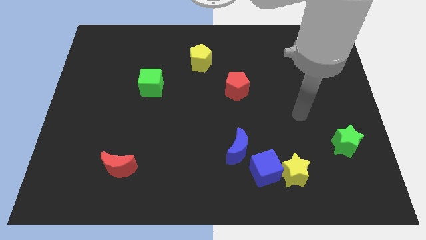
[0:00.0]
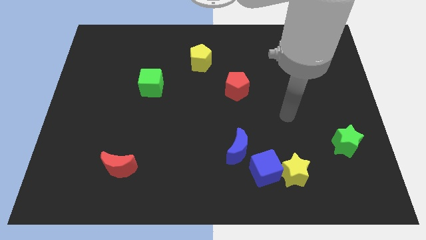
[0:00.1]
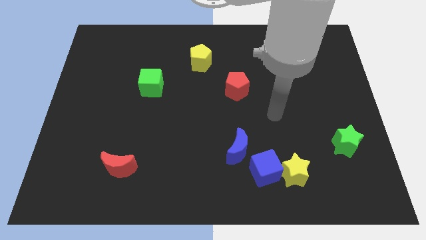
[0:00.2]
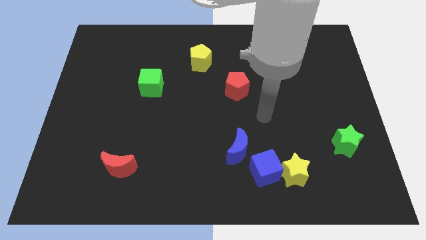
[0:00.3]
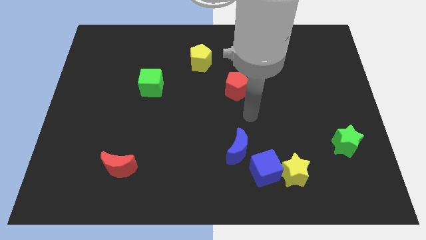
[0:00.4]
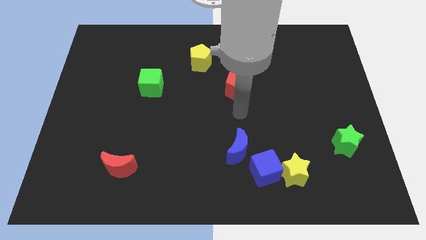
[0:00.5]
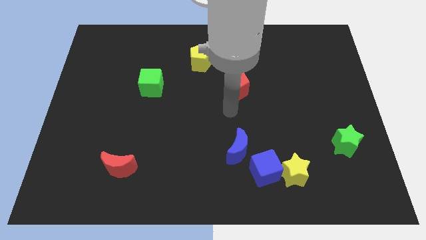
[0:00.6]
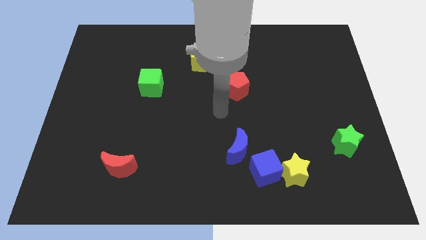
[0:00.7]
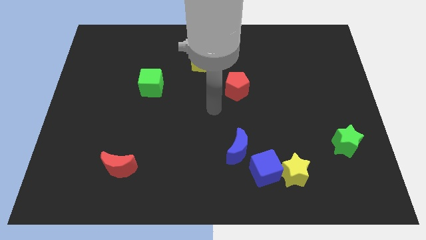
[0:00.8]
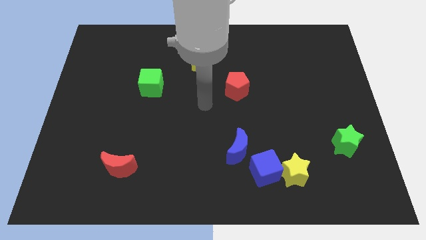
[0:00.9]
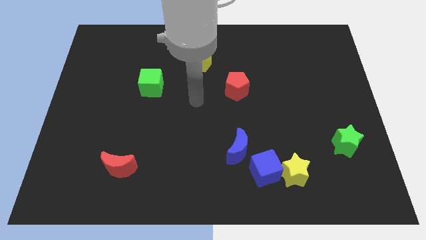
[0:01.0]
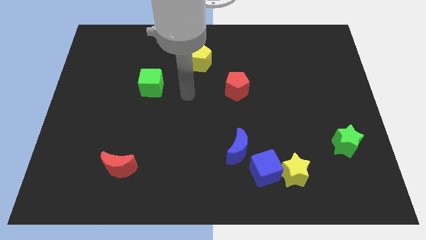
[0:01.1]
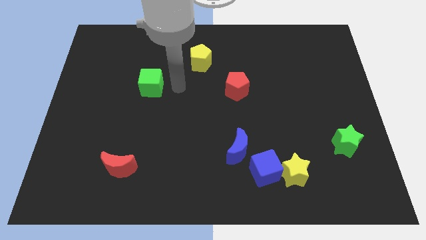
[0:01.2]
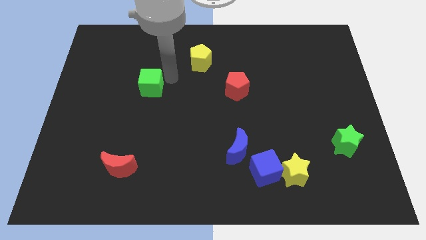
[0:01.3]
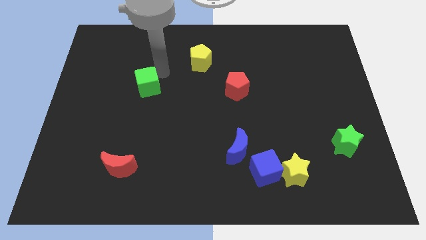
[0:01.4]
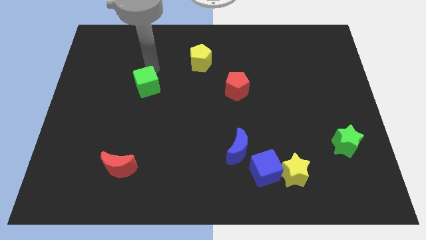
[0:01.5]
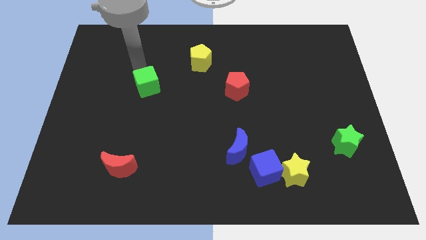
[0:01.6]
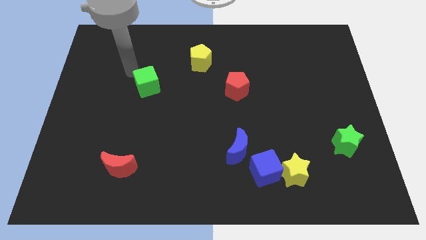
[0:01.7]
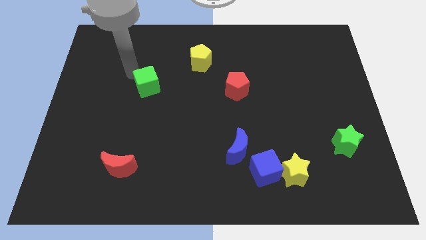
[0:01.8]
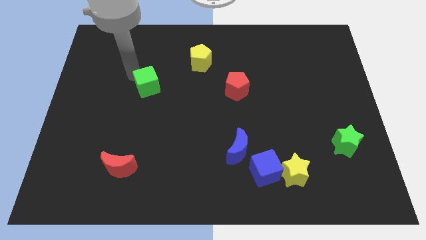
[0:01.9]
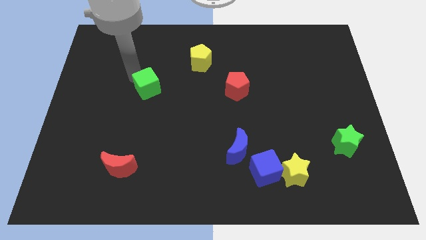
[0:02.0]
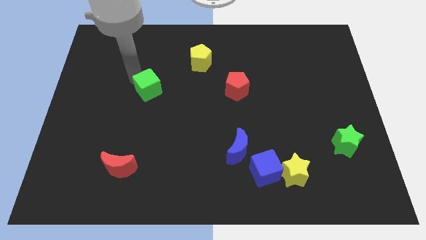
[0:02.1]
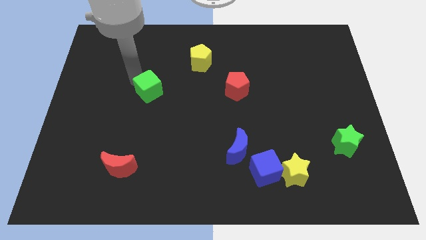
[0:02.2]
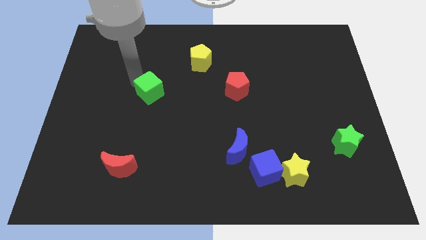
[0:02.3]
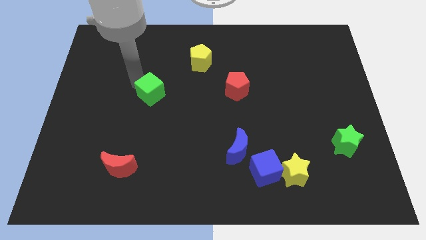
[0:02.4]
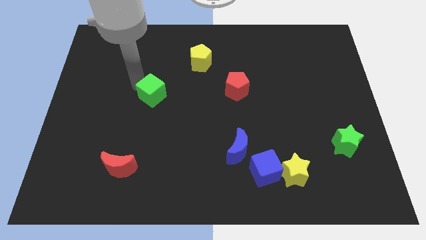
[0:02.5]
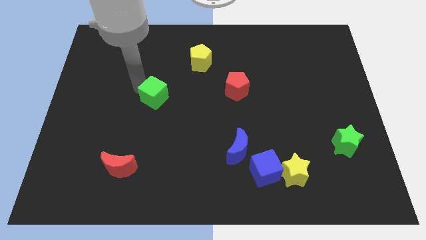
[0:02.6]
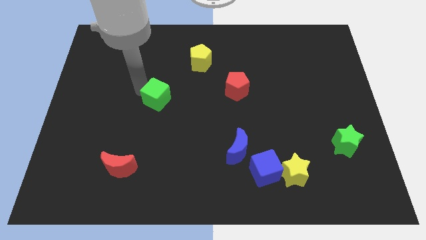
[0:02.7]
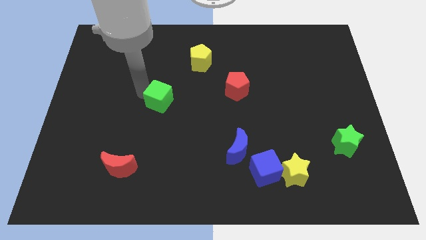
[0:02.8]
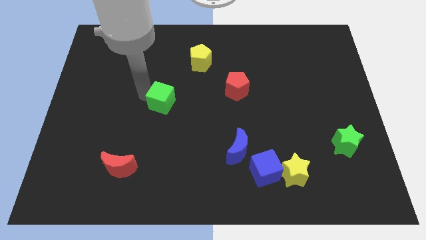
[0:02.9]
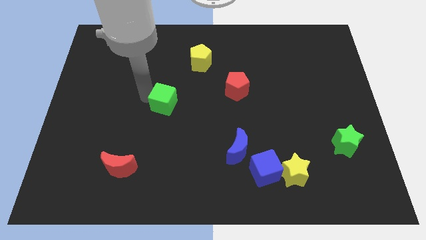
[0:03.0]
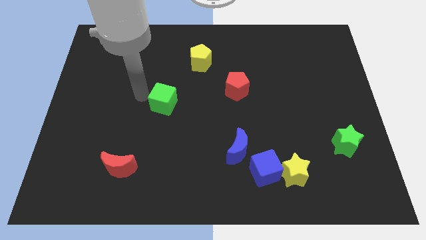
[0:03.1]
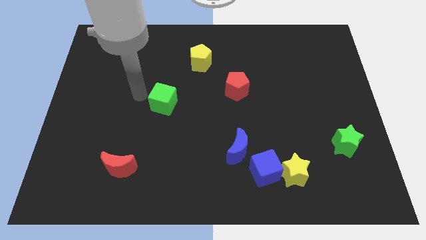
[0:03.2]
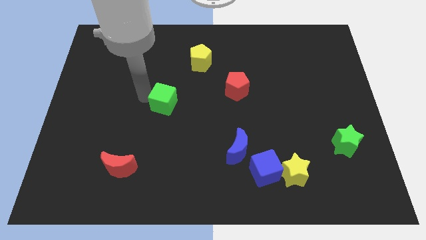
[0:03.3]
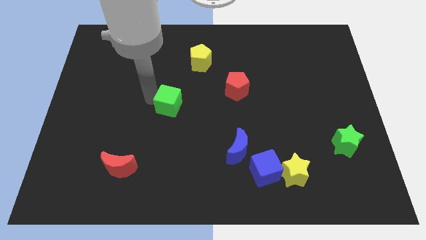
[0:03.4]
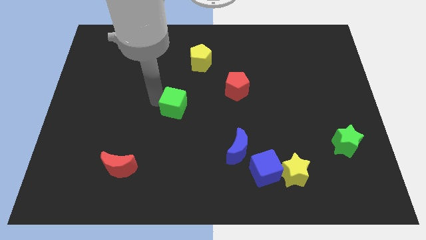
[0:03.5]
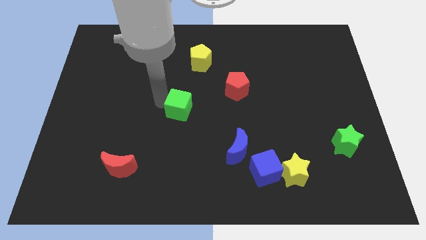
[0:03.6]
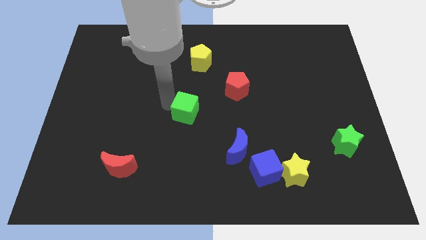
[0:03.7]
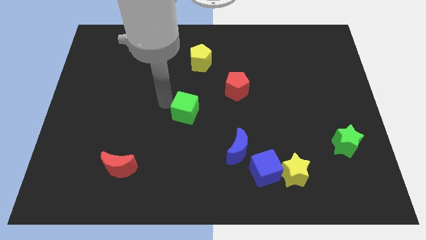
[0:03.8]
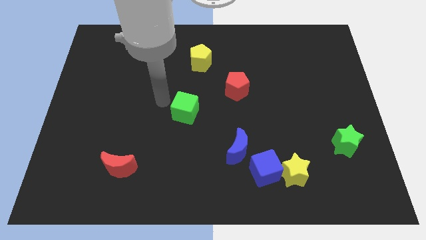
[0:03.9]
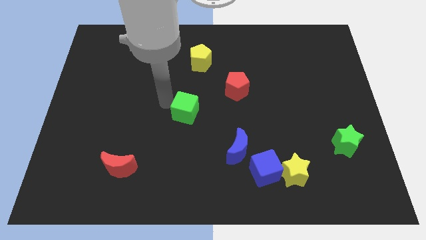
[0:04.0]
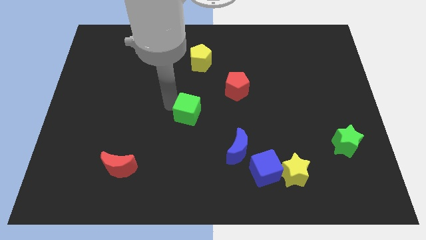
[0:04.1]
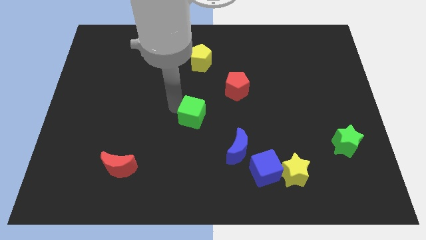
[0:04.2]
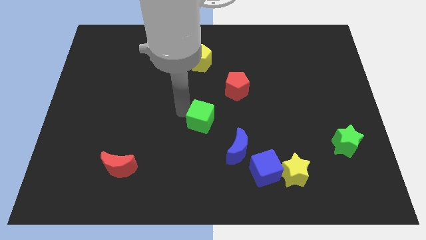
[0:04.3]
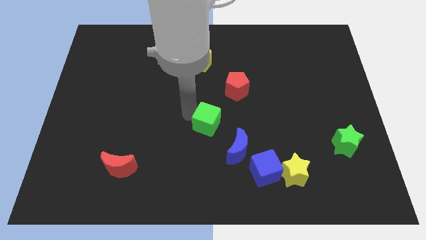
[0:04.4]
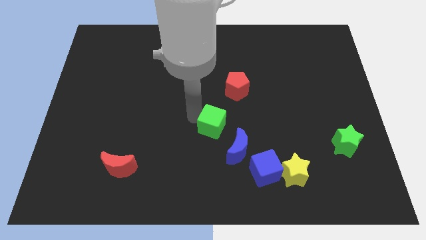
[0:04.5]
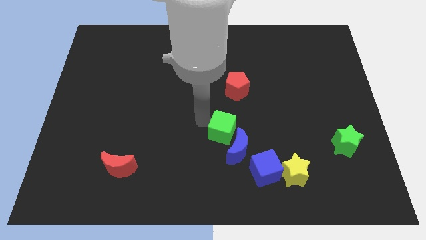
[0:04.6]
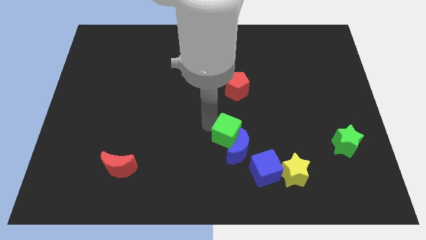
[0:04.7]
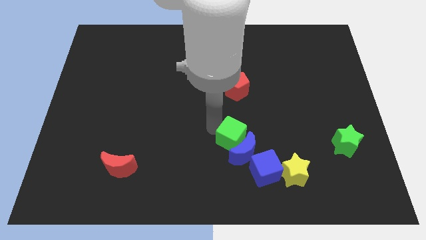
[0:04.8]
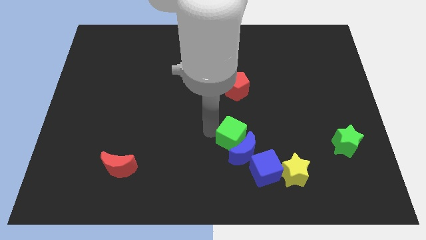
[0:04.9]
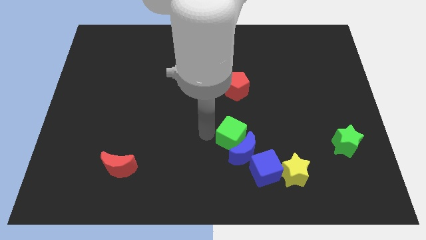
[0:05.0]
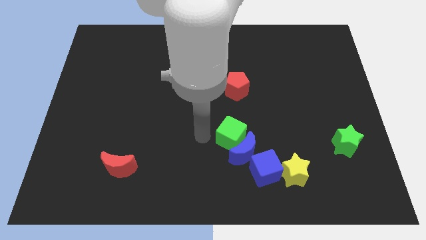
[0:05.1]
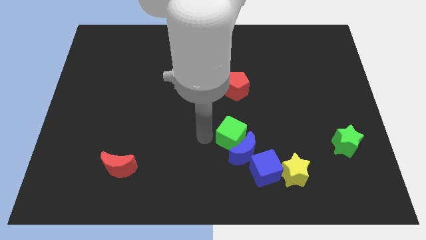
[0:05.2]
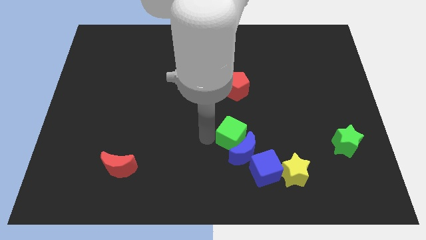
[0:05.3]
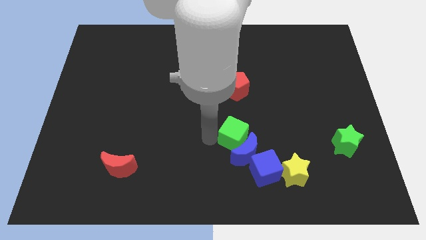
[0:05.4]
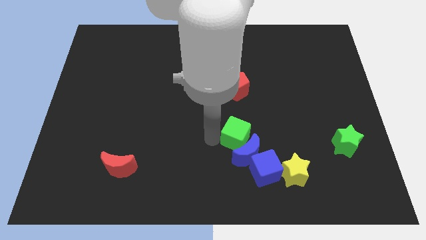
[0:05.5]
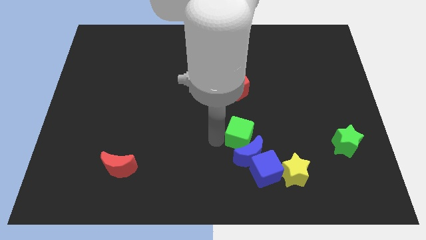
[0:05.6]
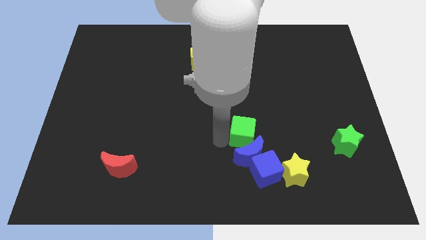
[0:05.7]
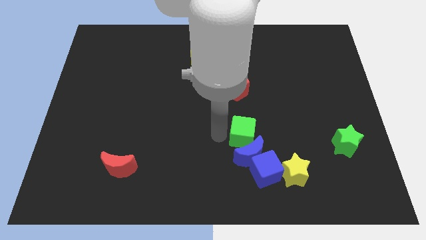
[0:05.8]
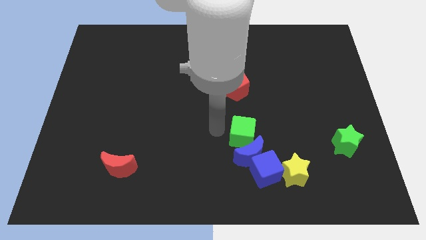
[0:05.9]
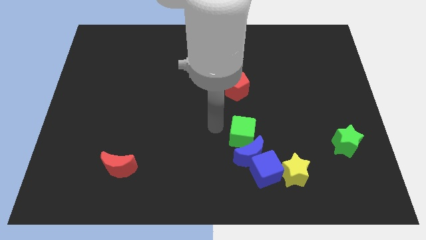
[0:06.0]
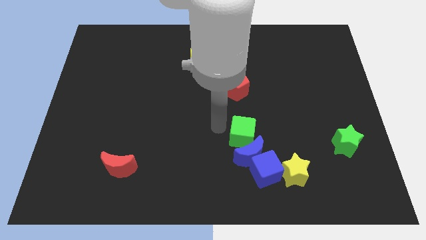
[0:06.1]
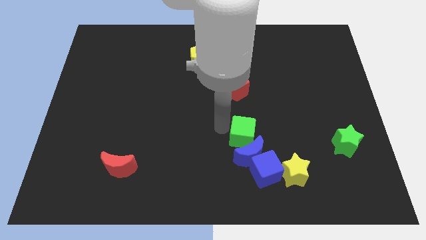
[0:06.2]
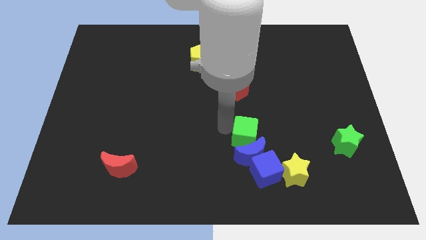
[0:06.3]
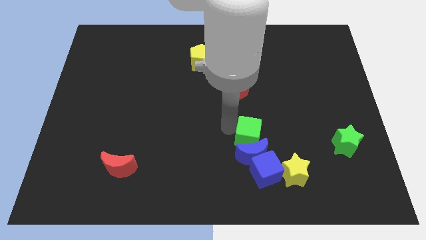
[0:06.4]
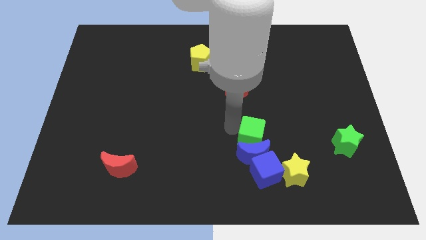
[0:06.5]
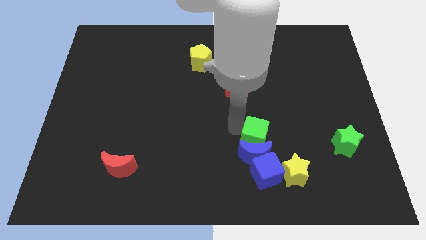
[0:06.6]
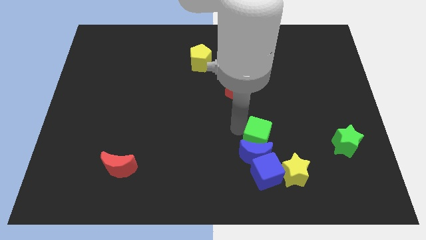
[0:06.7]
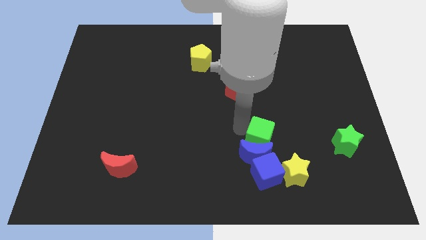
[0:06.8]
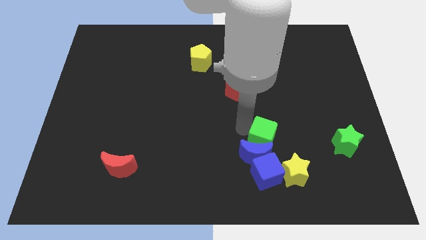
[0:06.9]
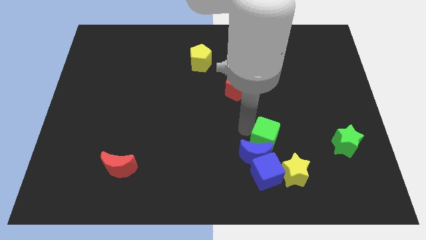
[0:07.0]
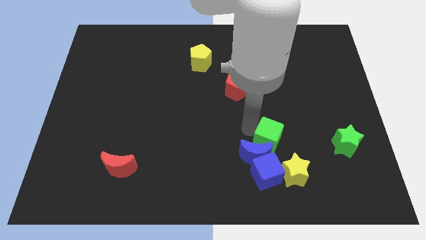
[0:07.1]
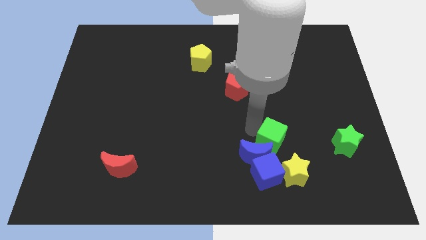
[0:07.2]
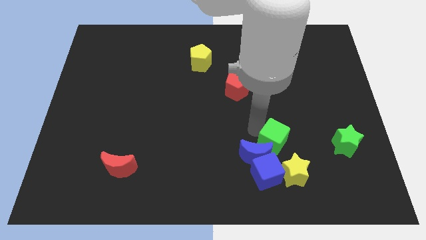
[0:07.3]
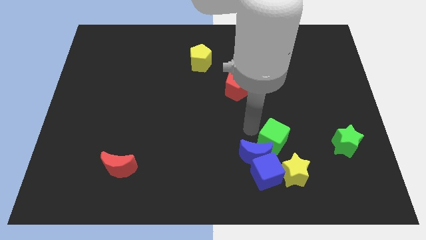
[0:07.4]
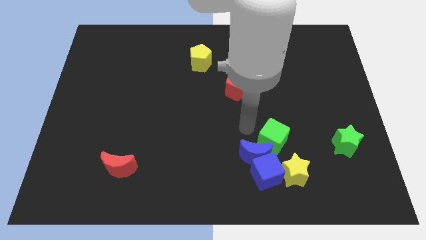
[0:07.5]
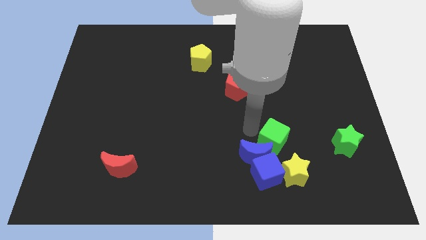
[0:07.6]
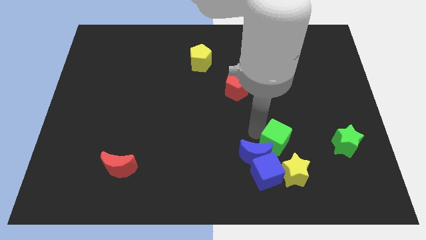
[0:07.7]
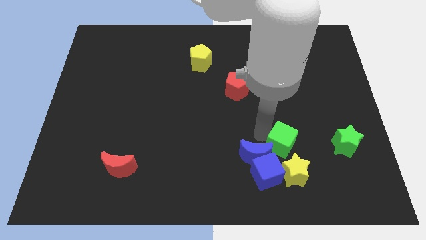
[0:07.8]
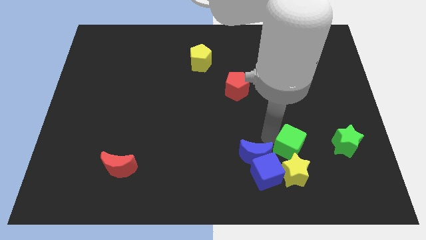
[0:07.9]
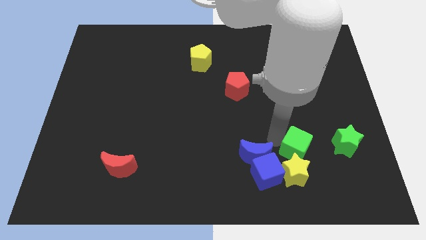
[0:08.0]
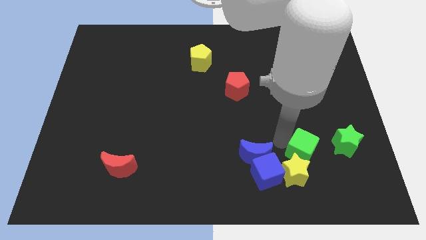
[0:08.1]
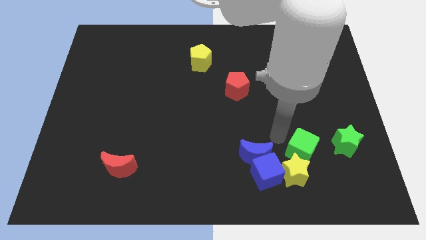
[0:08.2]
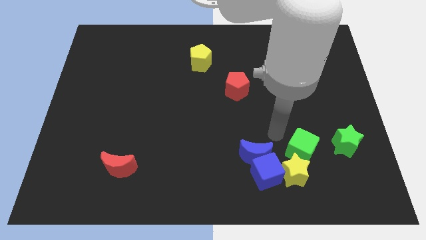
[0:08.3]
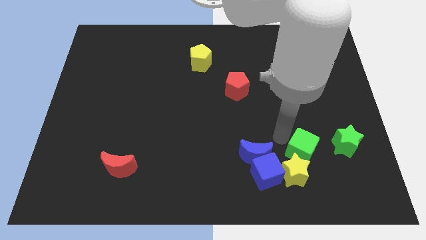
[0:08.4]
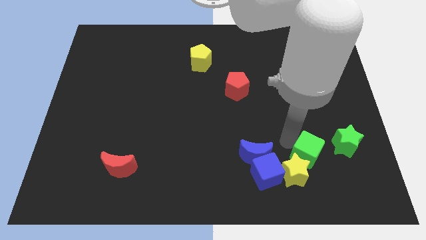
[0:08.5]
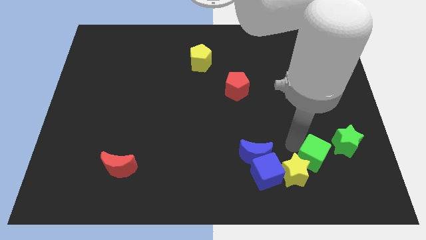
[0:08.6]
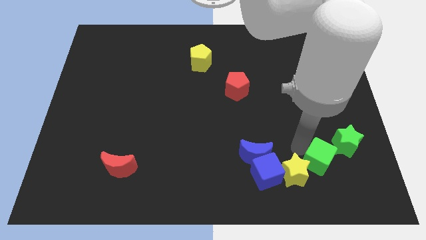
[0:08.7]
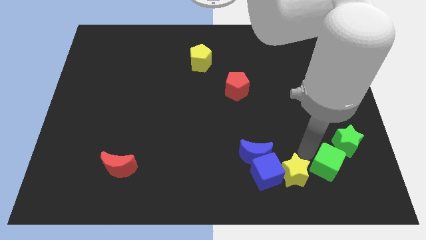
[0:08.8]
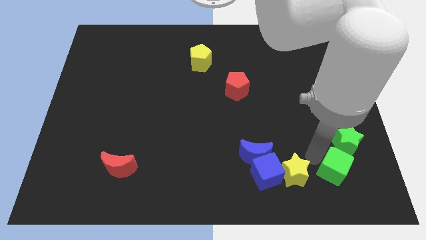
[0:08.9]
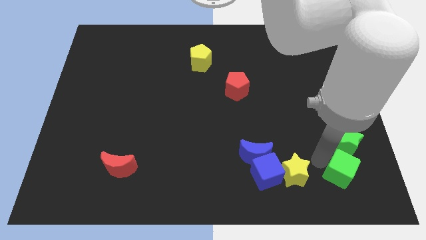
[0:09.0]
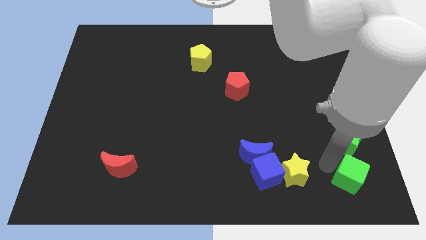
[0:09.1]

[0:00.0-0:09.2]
move the green cube to the bottom right
